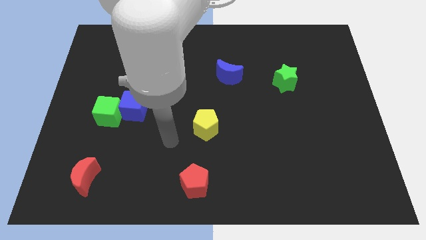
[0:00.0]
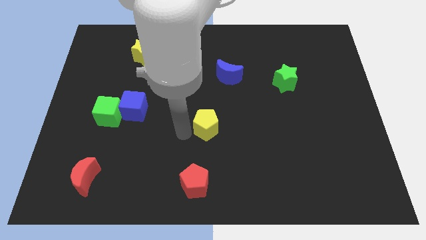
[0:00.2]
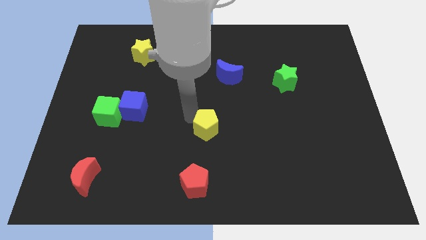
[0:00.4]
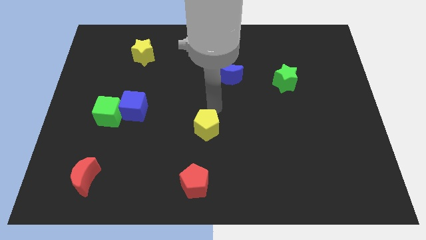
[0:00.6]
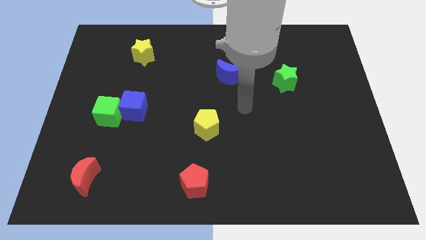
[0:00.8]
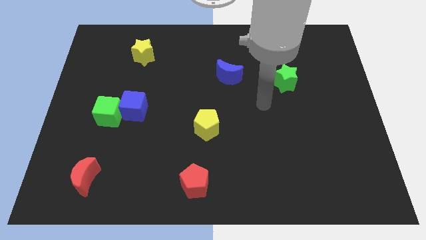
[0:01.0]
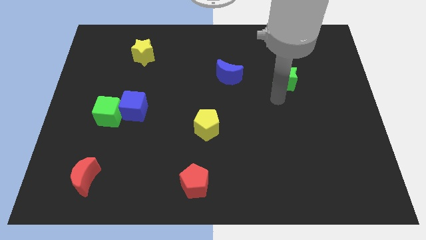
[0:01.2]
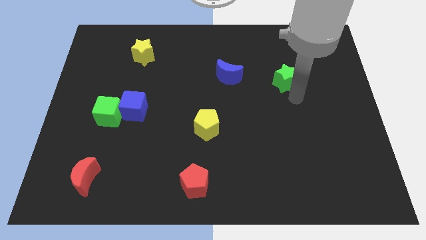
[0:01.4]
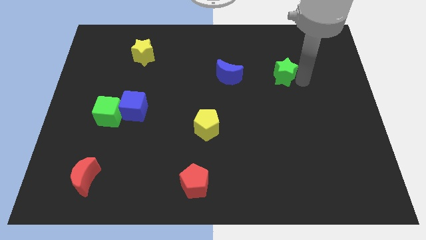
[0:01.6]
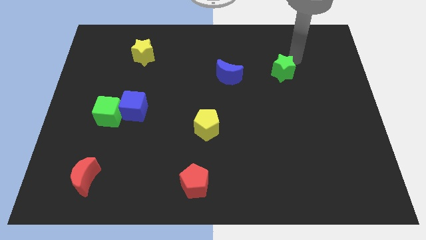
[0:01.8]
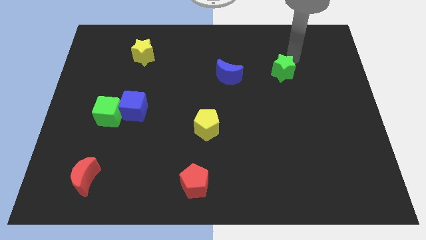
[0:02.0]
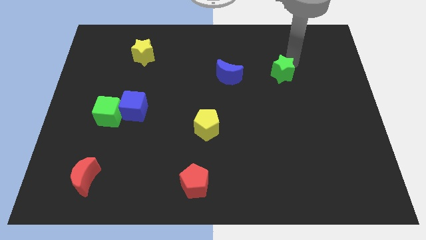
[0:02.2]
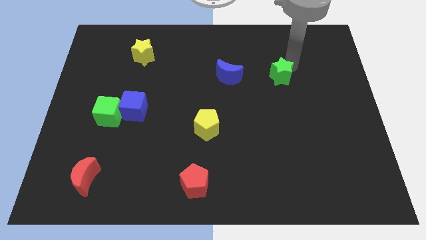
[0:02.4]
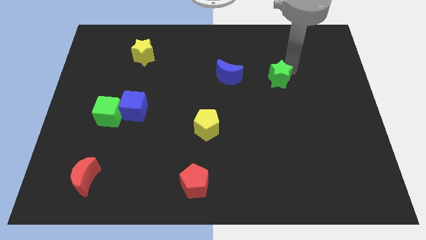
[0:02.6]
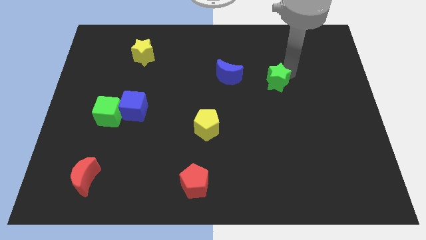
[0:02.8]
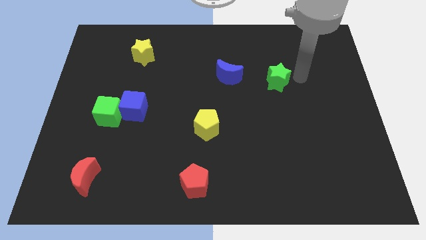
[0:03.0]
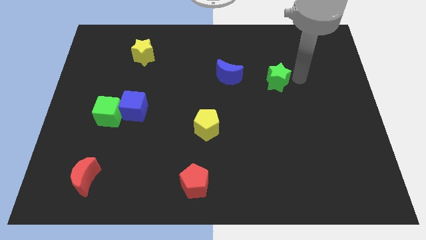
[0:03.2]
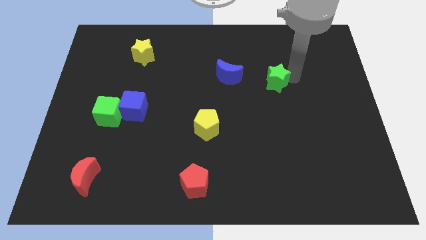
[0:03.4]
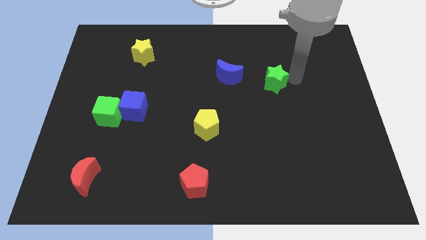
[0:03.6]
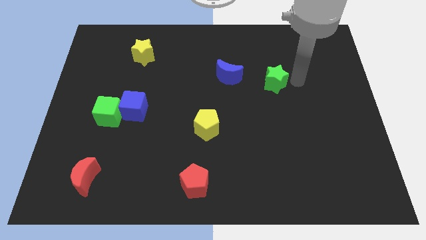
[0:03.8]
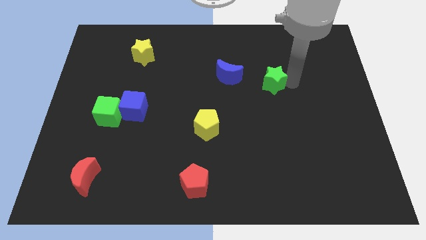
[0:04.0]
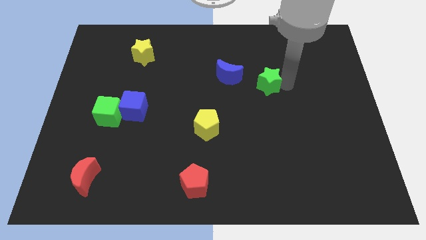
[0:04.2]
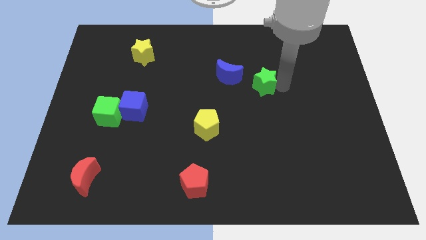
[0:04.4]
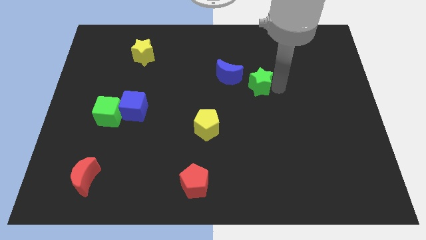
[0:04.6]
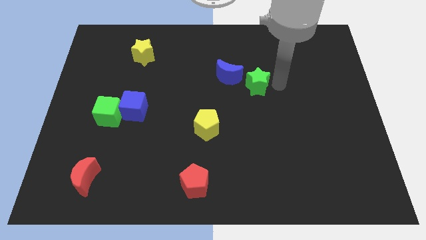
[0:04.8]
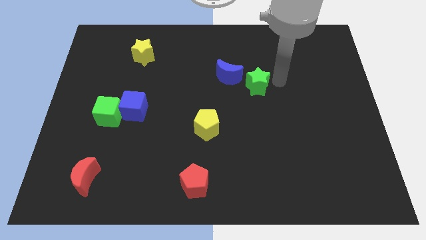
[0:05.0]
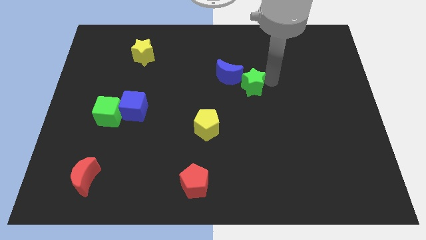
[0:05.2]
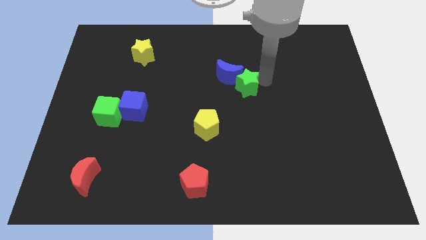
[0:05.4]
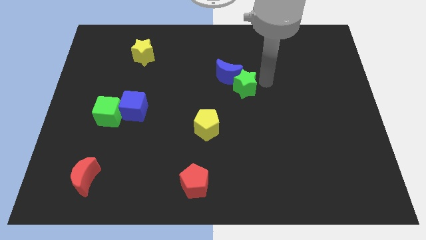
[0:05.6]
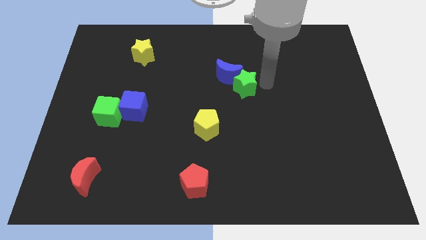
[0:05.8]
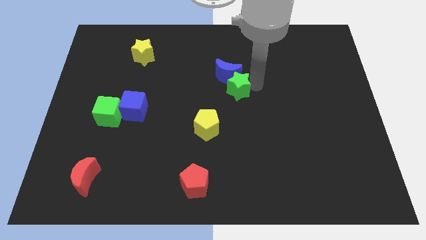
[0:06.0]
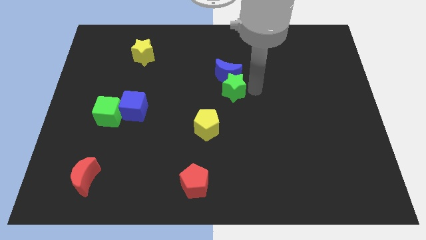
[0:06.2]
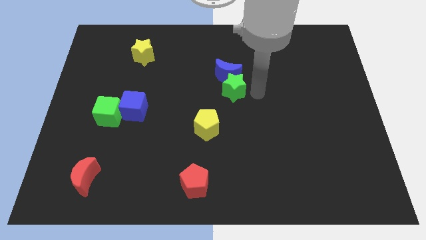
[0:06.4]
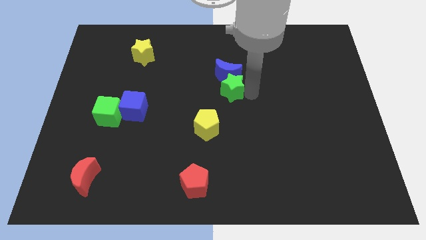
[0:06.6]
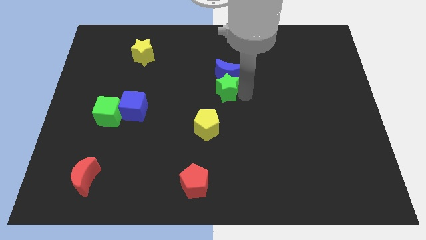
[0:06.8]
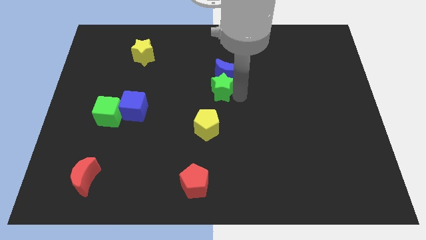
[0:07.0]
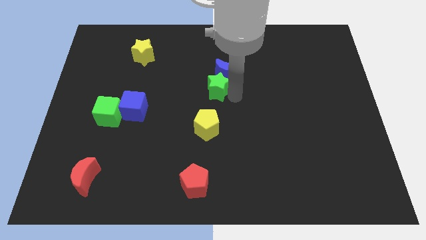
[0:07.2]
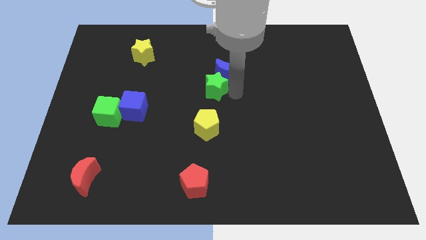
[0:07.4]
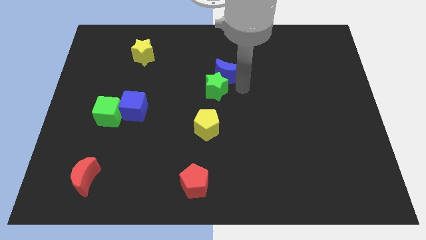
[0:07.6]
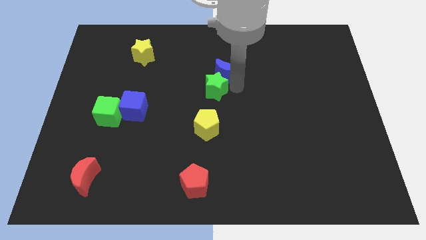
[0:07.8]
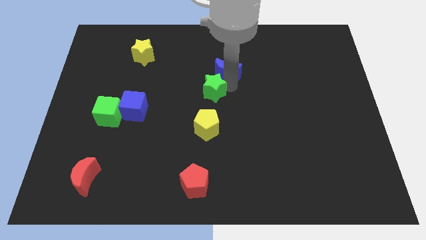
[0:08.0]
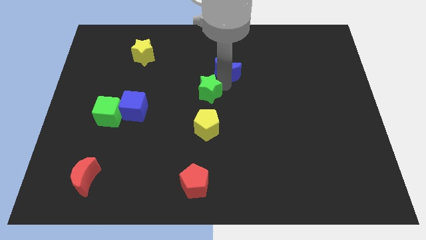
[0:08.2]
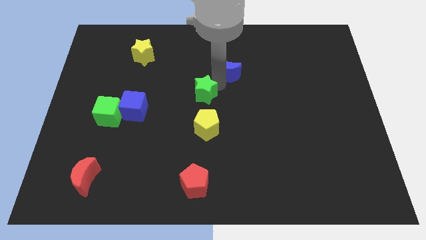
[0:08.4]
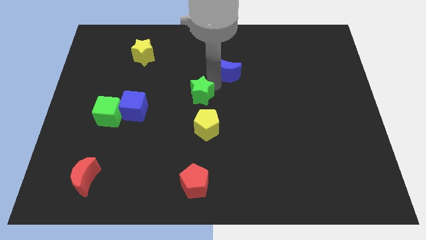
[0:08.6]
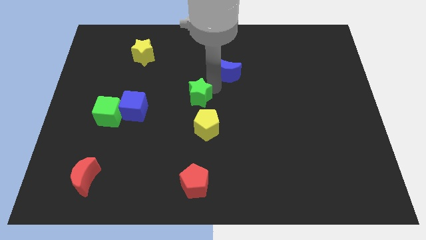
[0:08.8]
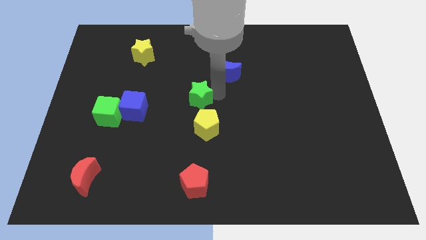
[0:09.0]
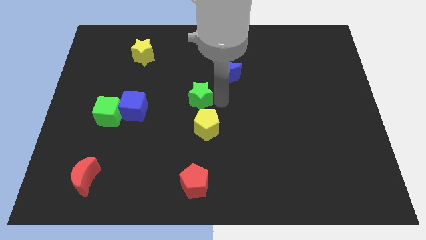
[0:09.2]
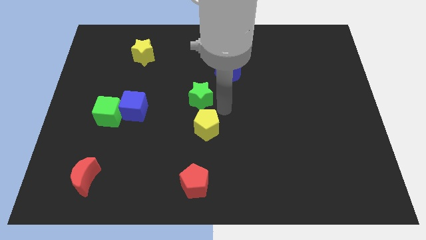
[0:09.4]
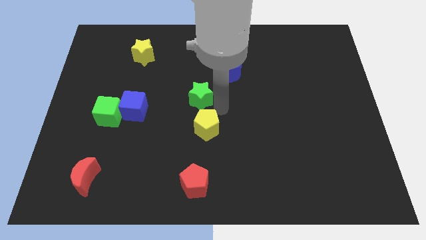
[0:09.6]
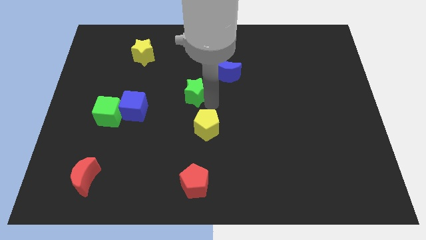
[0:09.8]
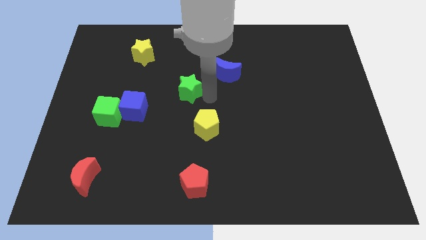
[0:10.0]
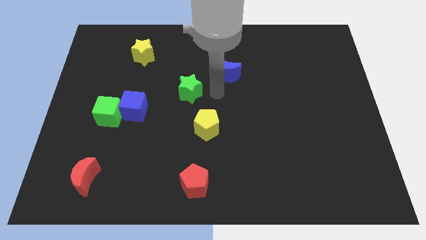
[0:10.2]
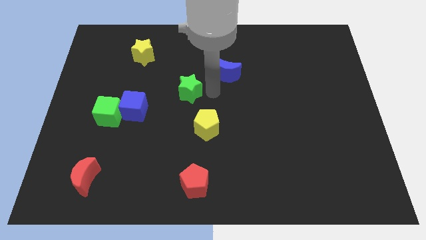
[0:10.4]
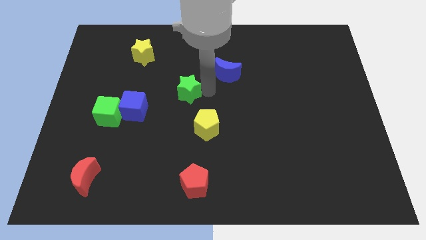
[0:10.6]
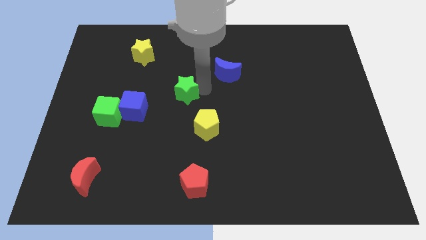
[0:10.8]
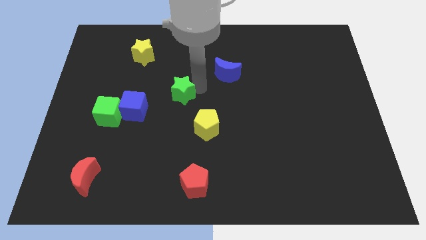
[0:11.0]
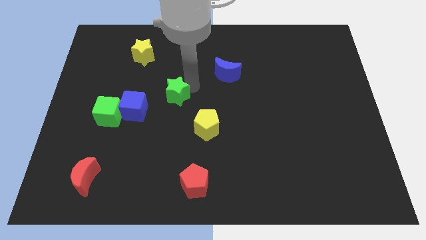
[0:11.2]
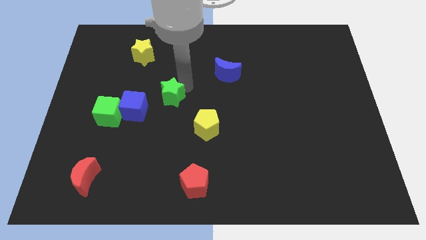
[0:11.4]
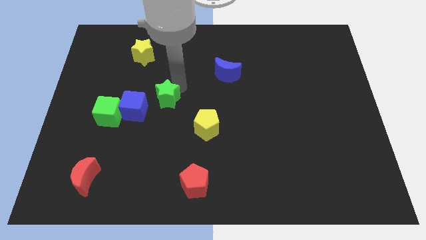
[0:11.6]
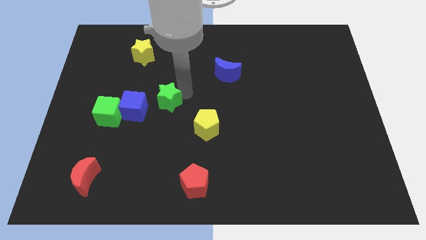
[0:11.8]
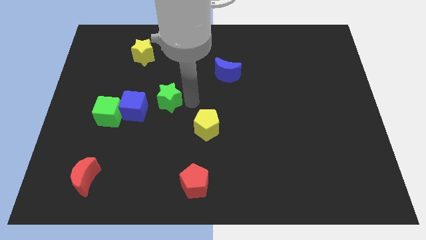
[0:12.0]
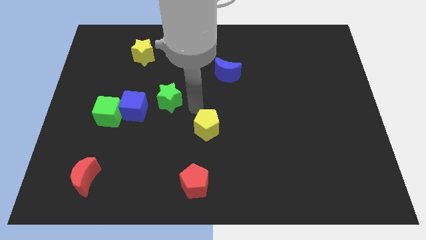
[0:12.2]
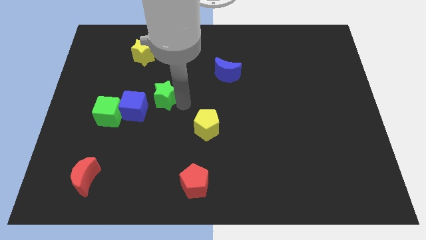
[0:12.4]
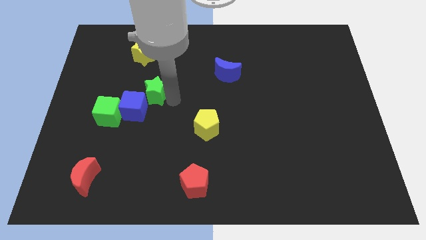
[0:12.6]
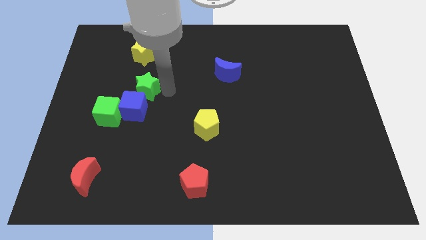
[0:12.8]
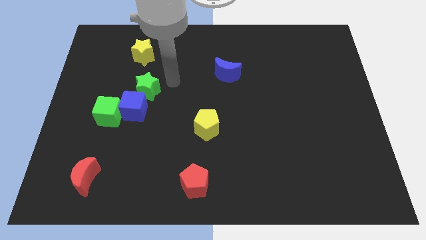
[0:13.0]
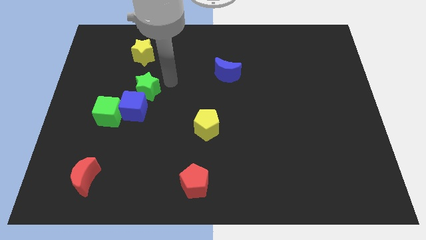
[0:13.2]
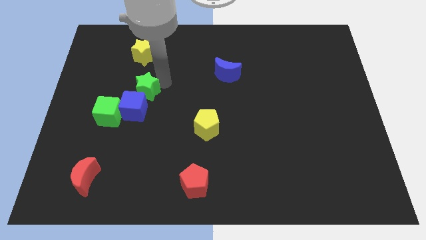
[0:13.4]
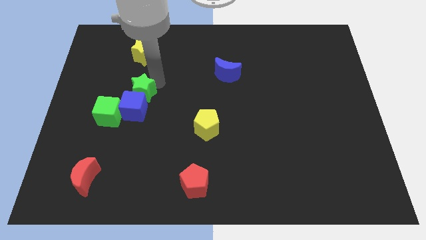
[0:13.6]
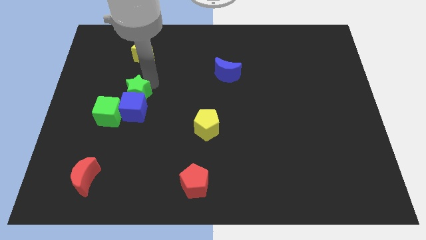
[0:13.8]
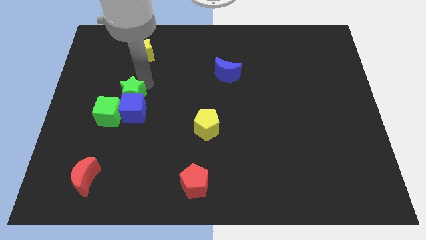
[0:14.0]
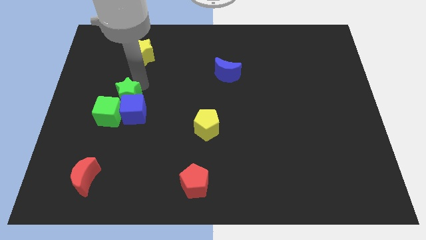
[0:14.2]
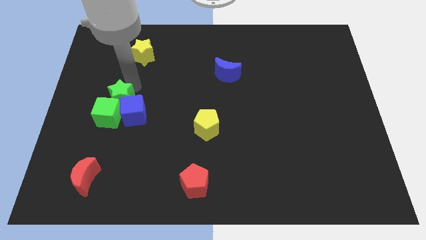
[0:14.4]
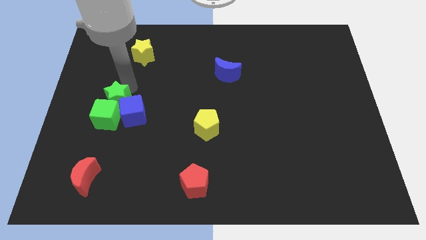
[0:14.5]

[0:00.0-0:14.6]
slide the green star to the left side of the blue cube
